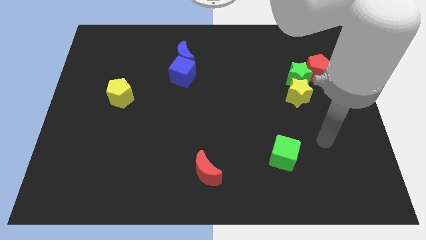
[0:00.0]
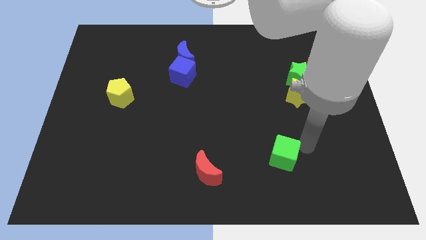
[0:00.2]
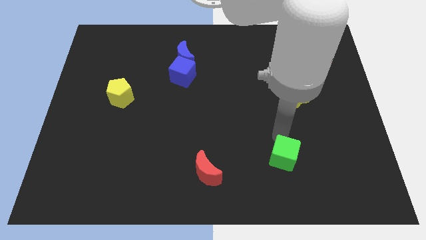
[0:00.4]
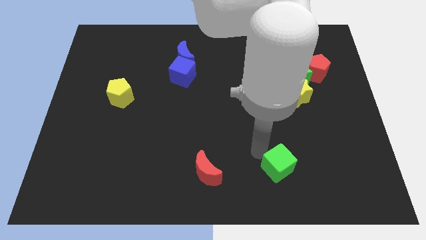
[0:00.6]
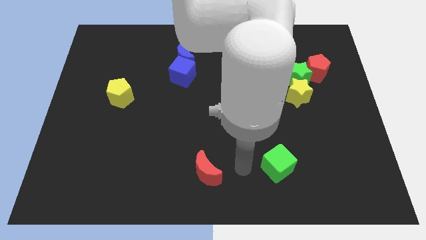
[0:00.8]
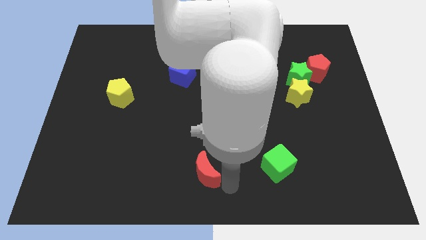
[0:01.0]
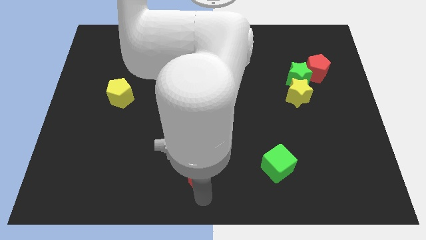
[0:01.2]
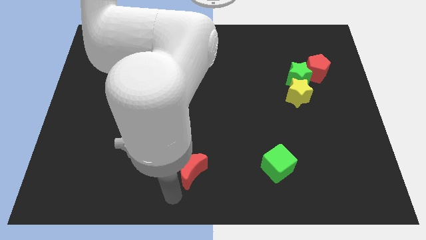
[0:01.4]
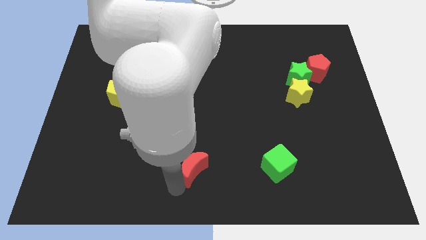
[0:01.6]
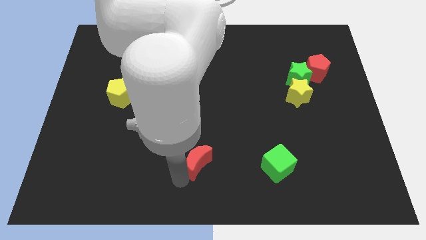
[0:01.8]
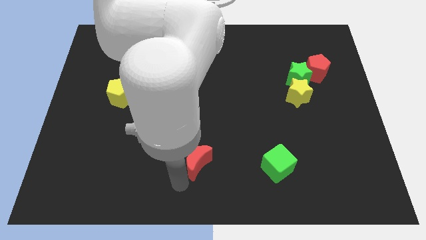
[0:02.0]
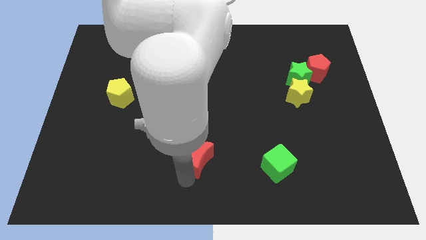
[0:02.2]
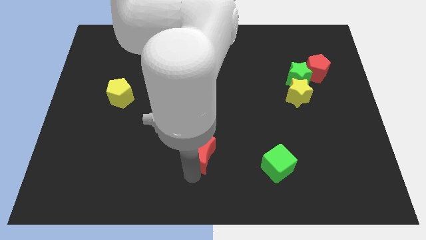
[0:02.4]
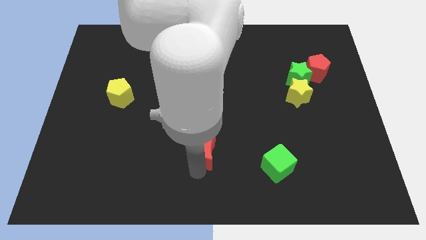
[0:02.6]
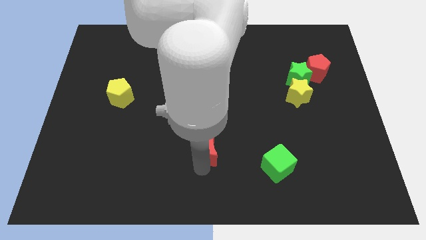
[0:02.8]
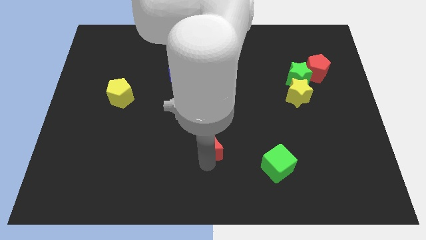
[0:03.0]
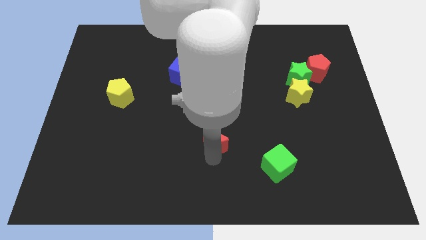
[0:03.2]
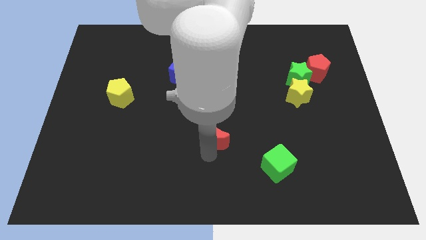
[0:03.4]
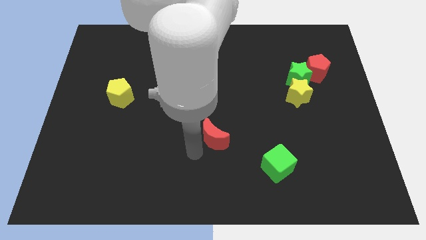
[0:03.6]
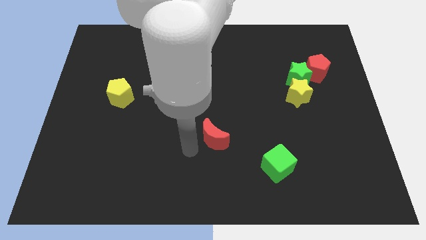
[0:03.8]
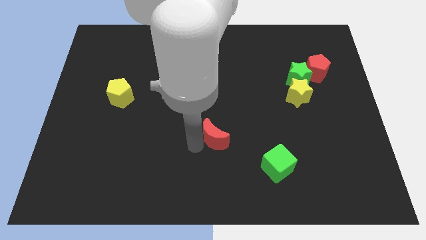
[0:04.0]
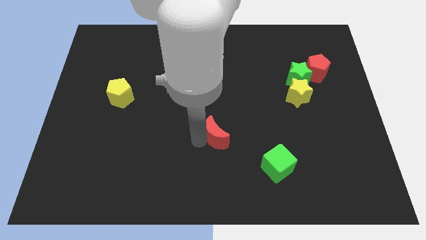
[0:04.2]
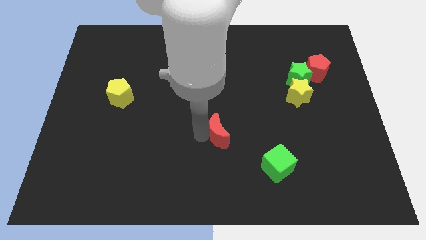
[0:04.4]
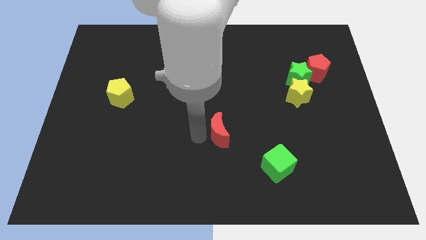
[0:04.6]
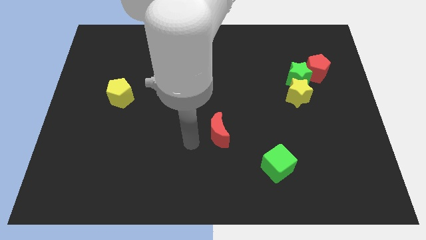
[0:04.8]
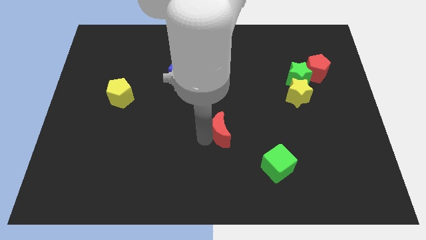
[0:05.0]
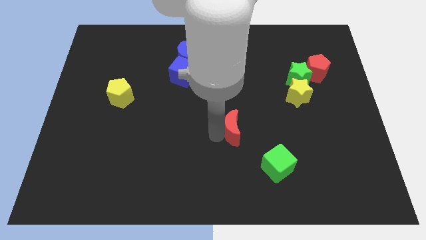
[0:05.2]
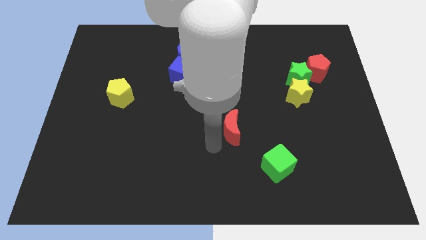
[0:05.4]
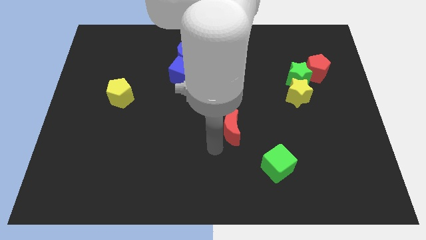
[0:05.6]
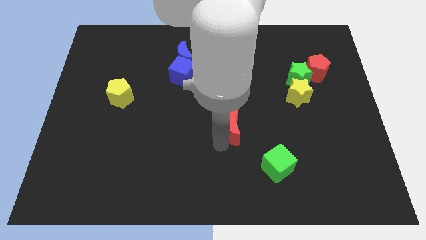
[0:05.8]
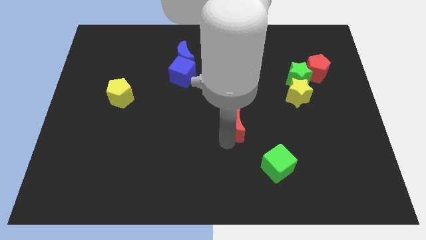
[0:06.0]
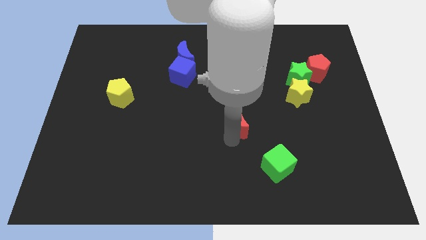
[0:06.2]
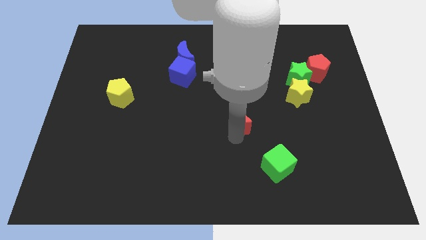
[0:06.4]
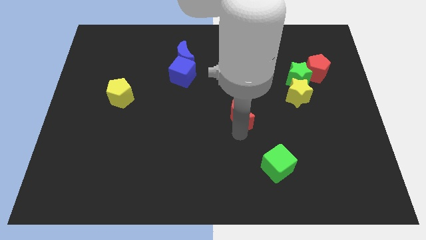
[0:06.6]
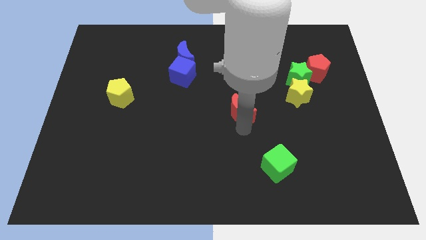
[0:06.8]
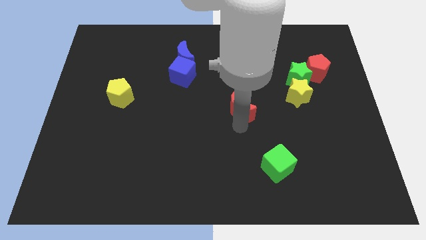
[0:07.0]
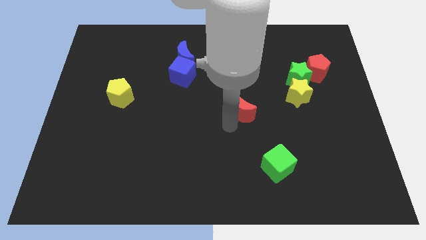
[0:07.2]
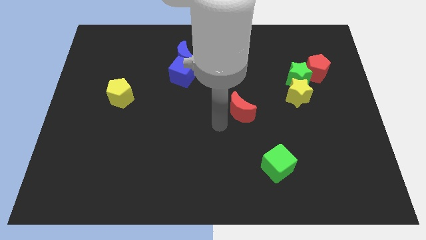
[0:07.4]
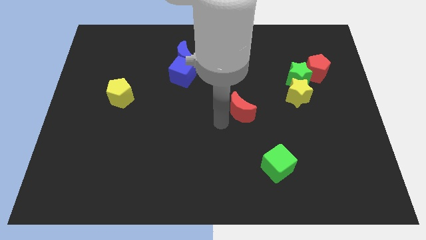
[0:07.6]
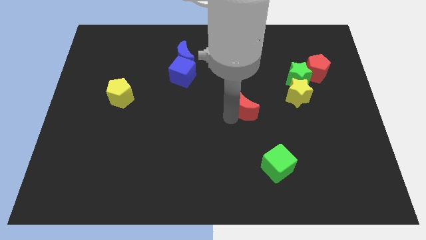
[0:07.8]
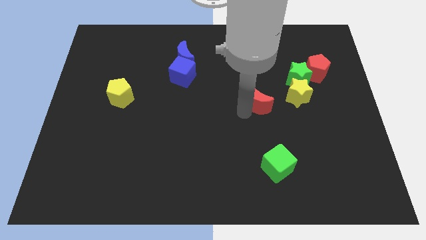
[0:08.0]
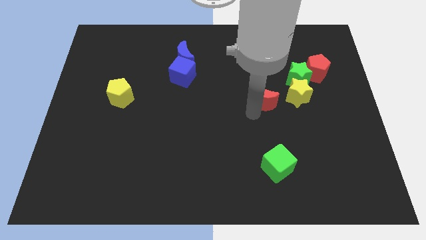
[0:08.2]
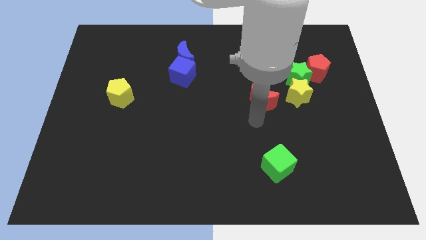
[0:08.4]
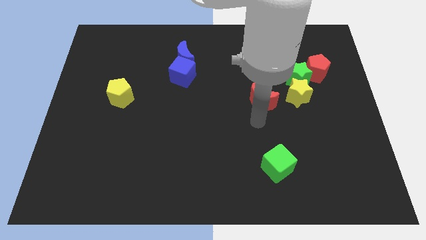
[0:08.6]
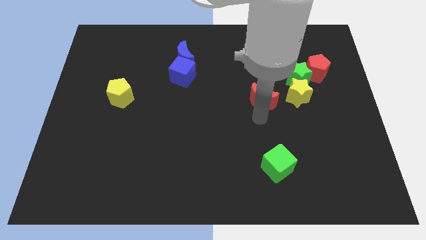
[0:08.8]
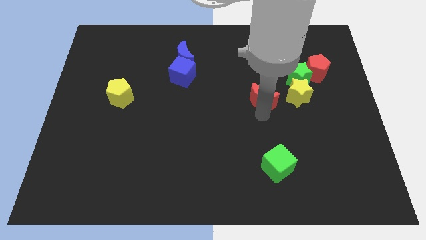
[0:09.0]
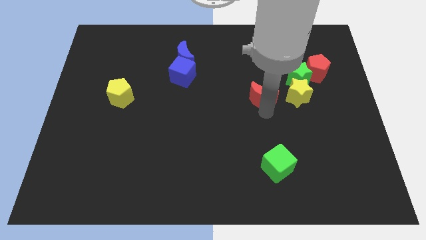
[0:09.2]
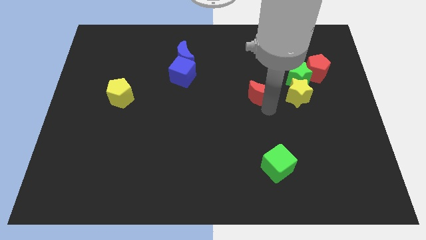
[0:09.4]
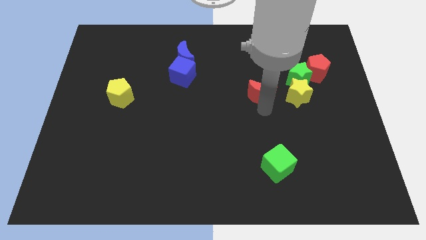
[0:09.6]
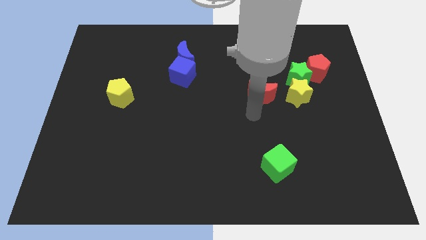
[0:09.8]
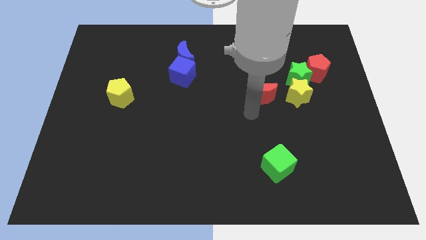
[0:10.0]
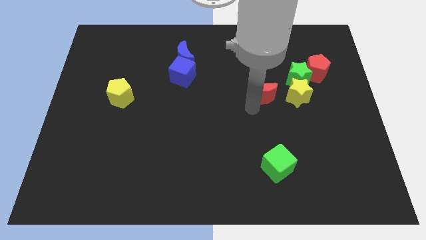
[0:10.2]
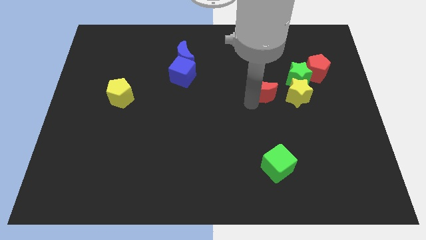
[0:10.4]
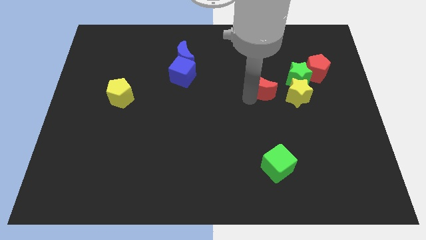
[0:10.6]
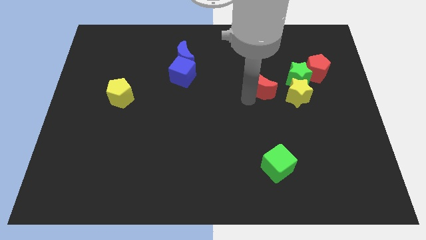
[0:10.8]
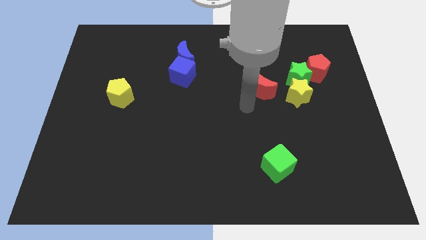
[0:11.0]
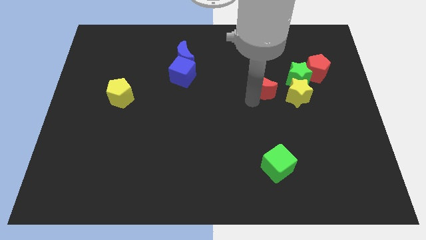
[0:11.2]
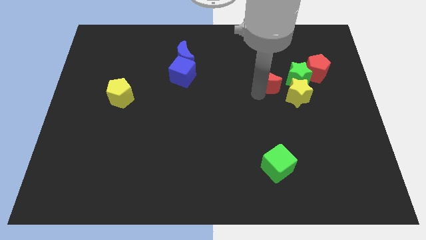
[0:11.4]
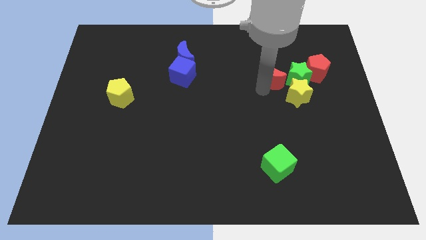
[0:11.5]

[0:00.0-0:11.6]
put the red moon to the top left of the green star
